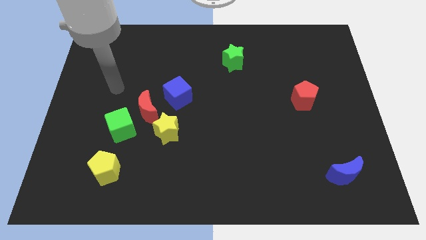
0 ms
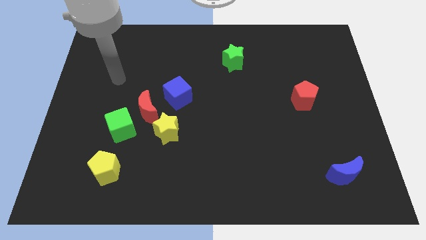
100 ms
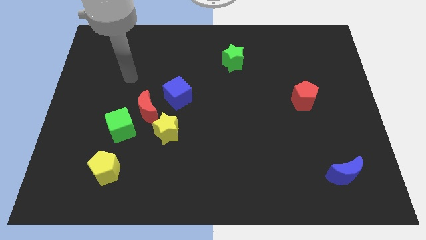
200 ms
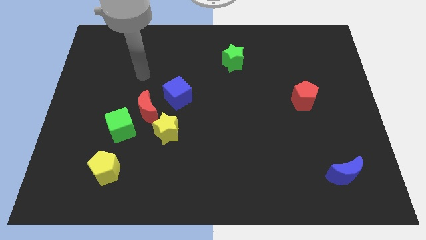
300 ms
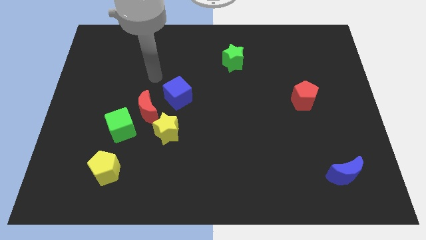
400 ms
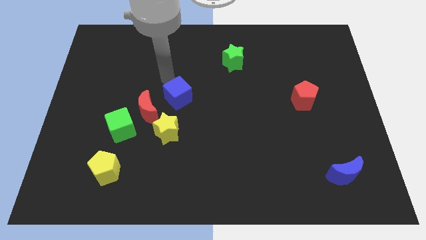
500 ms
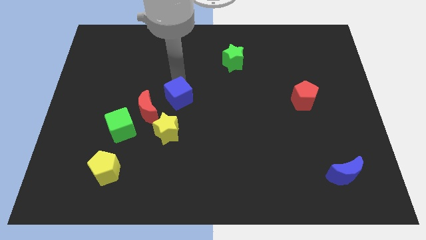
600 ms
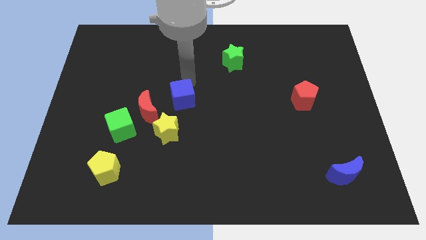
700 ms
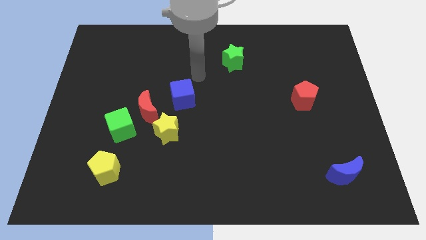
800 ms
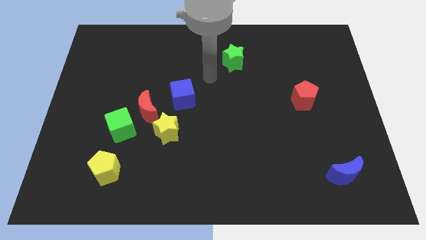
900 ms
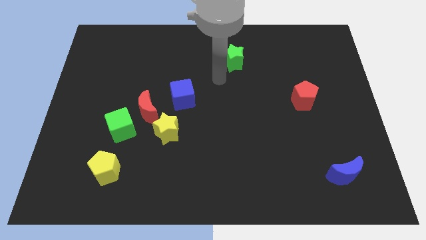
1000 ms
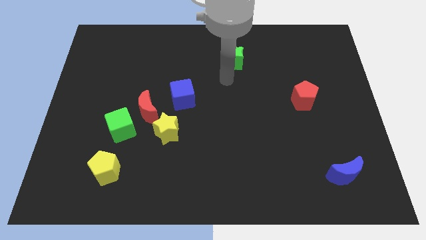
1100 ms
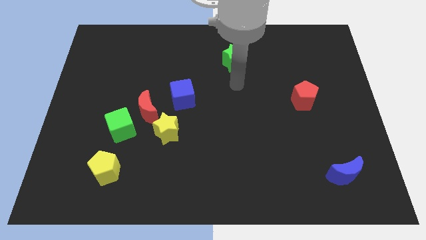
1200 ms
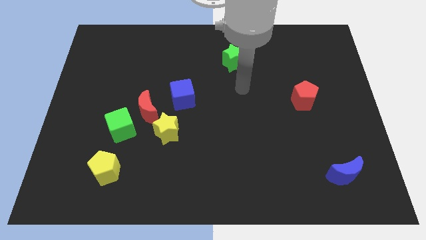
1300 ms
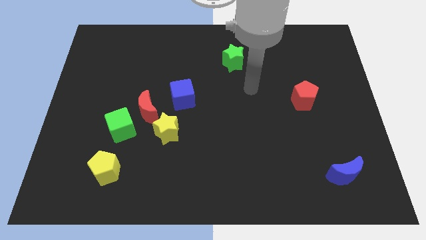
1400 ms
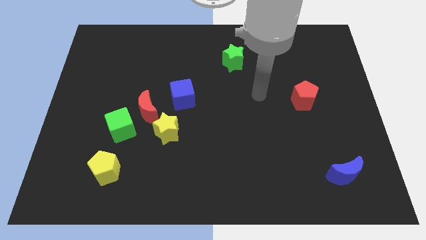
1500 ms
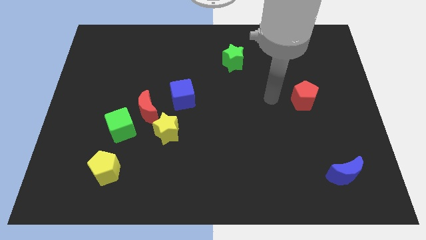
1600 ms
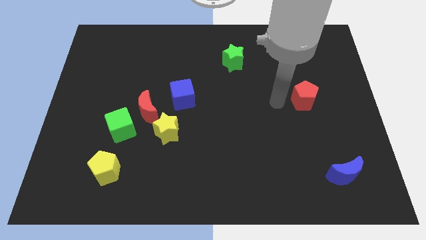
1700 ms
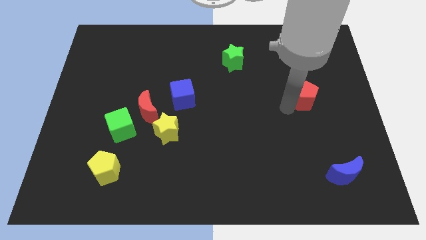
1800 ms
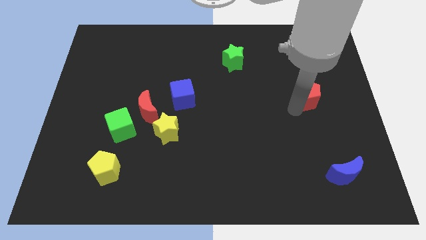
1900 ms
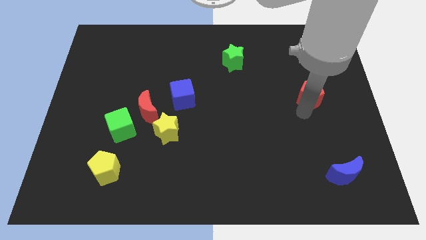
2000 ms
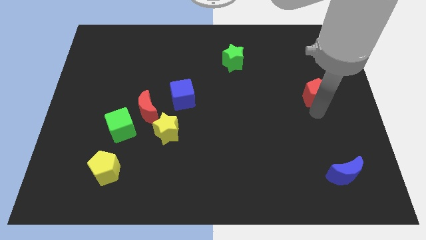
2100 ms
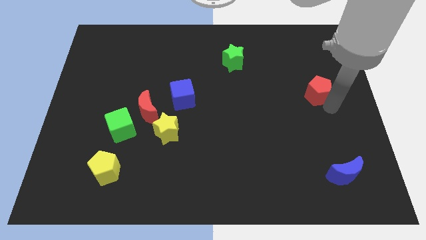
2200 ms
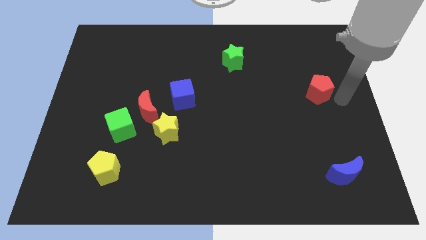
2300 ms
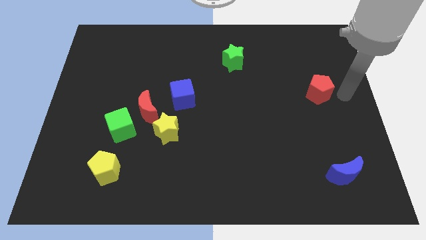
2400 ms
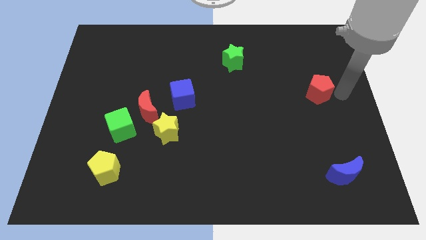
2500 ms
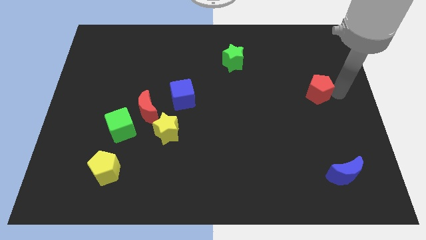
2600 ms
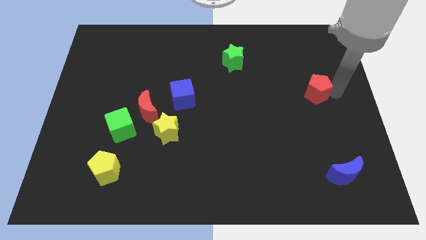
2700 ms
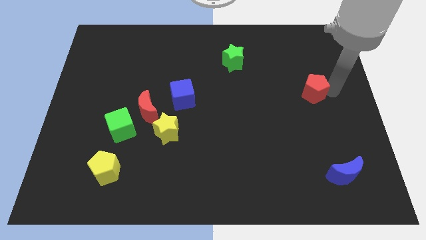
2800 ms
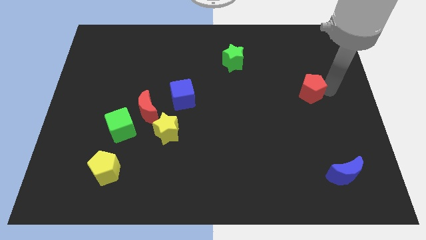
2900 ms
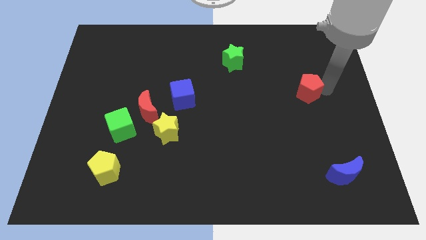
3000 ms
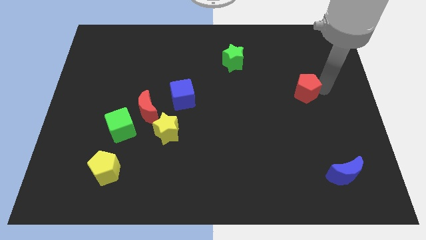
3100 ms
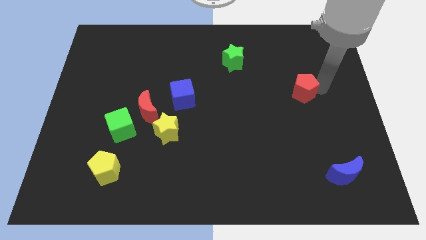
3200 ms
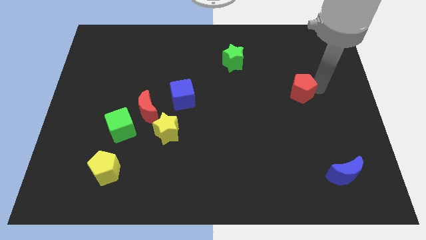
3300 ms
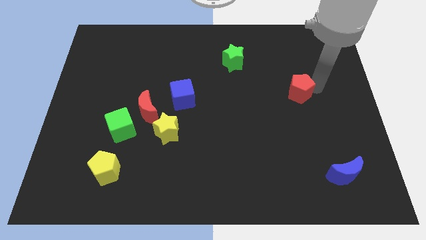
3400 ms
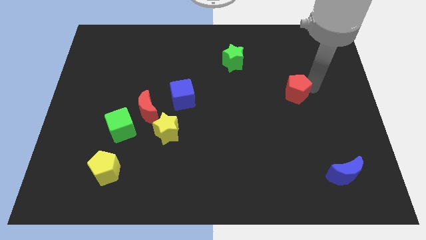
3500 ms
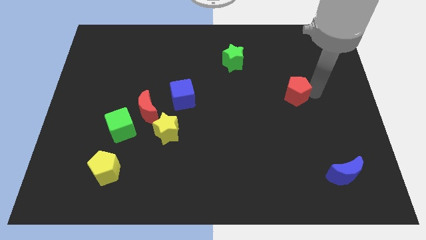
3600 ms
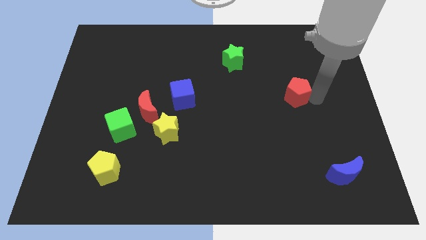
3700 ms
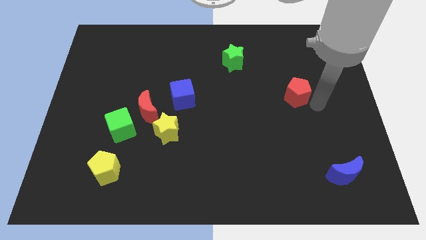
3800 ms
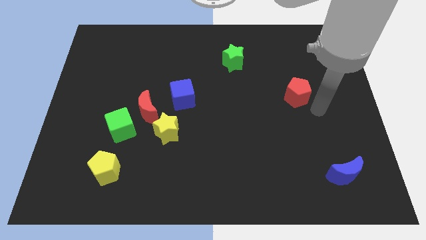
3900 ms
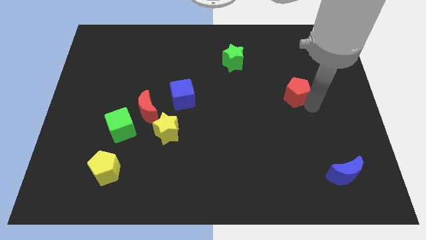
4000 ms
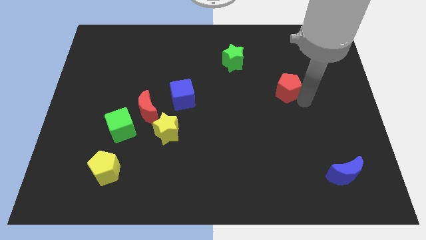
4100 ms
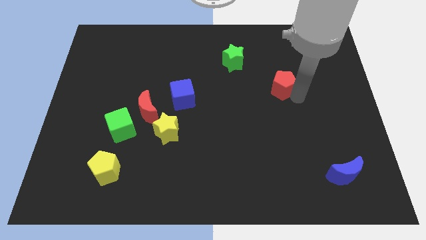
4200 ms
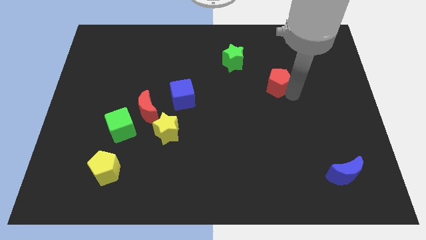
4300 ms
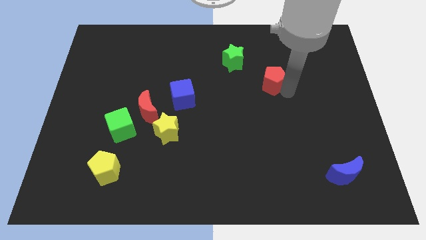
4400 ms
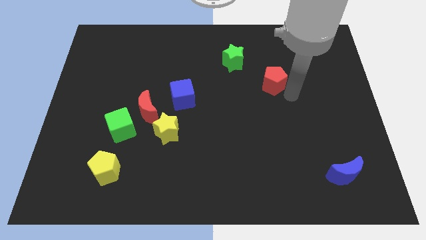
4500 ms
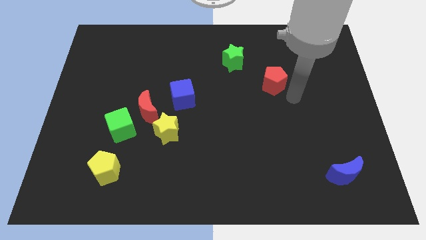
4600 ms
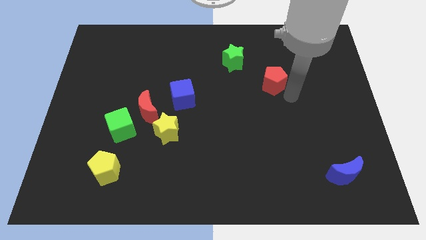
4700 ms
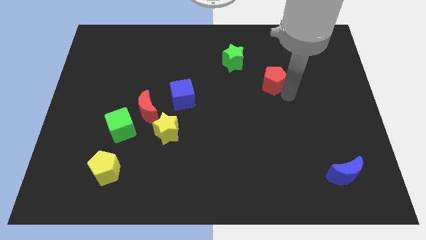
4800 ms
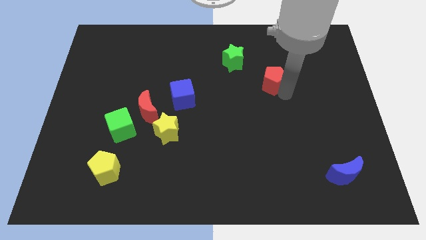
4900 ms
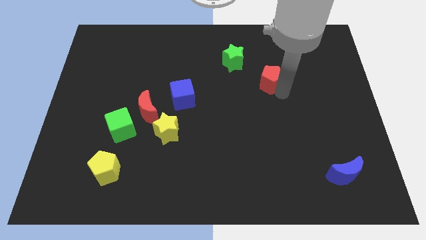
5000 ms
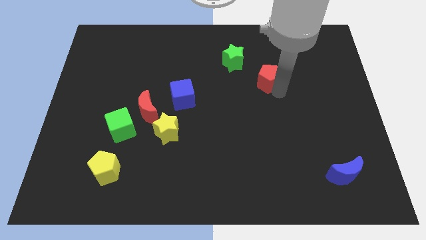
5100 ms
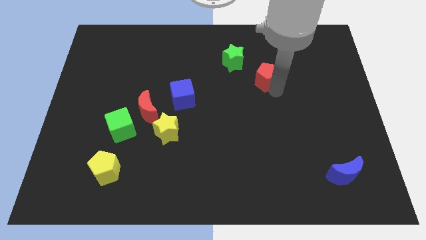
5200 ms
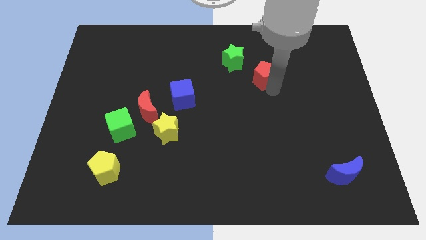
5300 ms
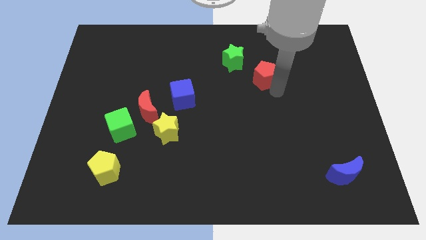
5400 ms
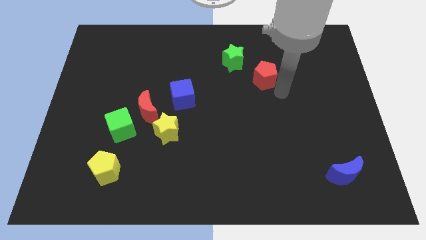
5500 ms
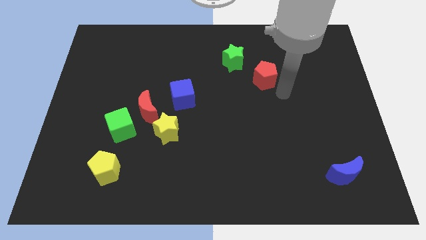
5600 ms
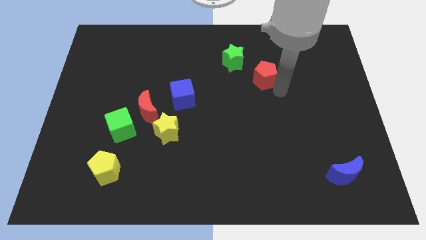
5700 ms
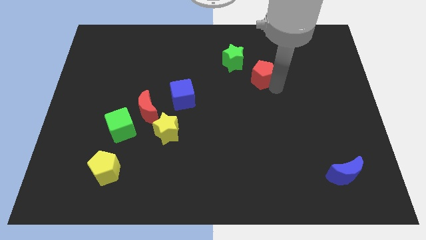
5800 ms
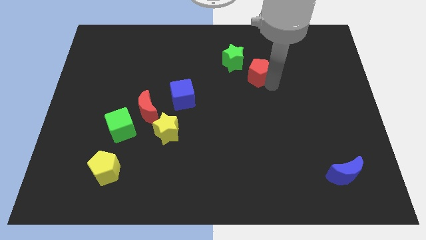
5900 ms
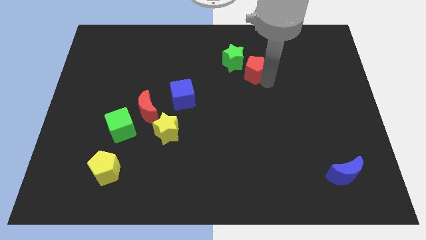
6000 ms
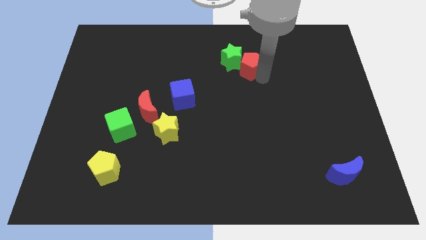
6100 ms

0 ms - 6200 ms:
push the red pentagon next to the green star

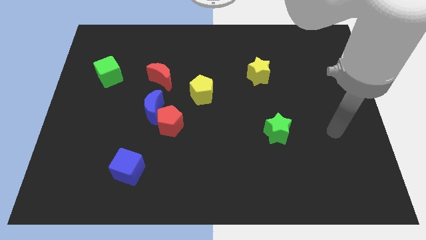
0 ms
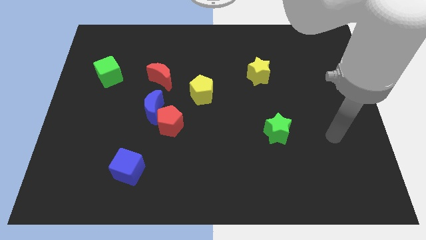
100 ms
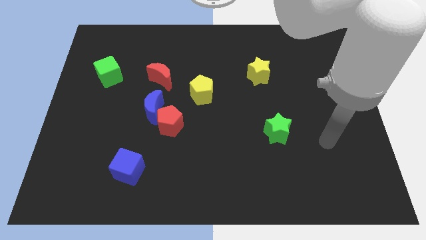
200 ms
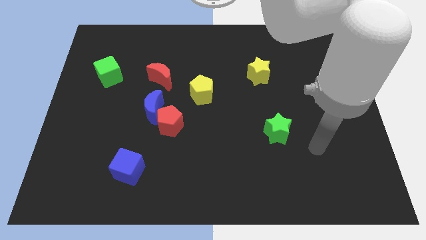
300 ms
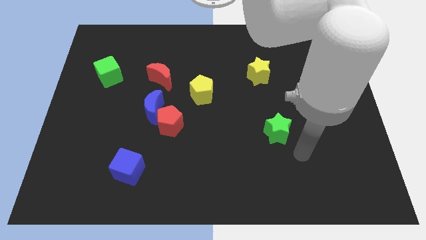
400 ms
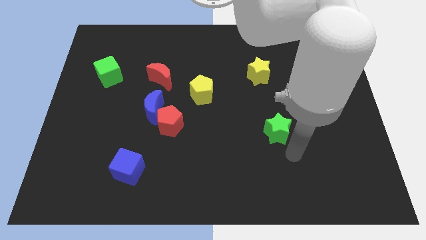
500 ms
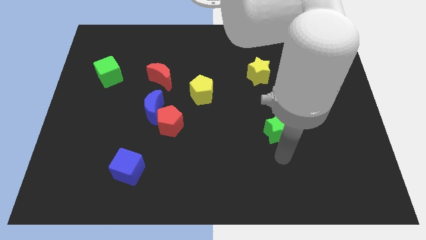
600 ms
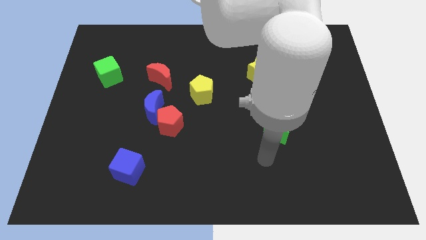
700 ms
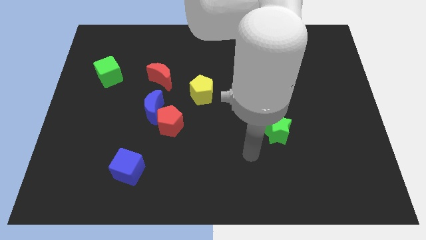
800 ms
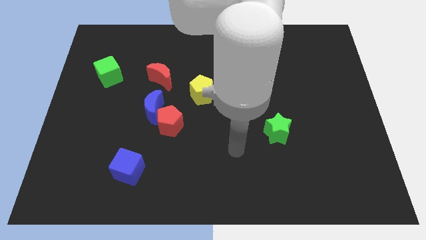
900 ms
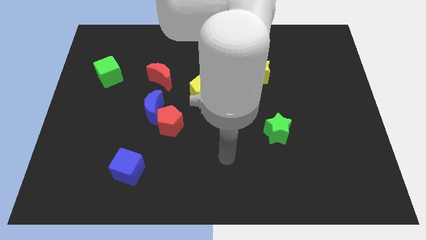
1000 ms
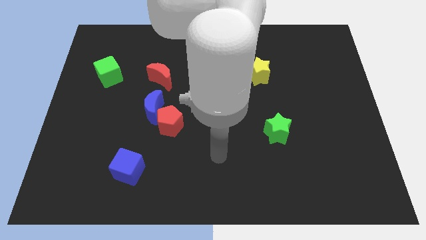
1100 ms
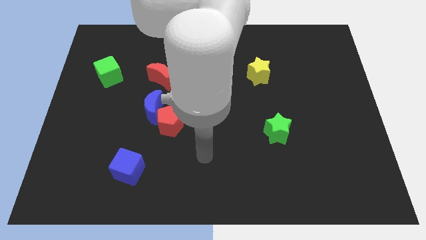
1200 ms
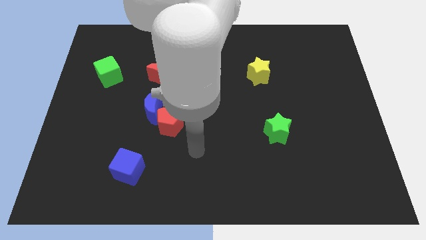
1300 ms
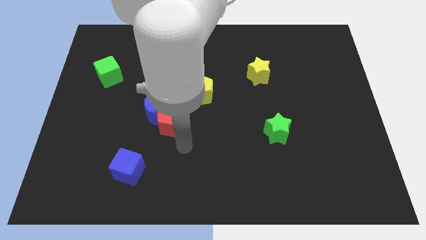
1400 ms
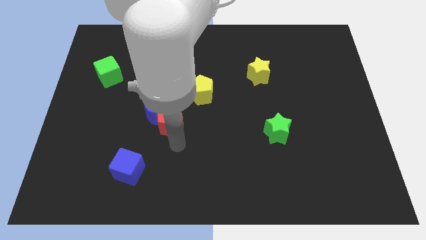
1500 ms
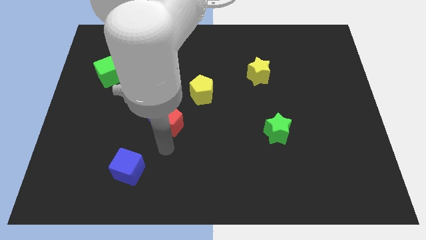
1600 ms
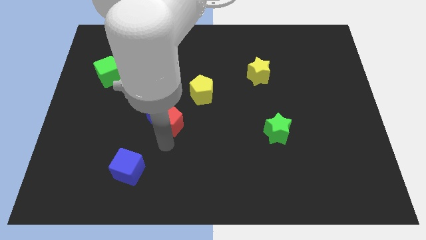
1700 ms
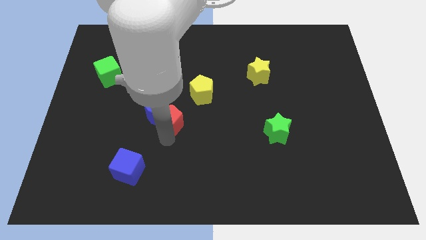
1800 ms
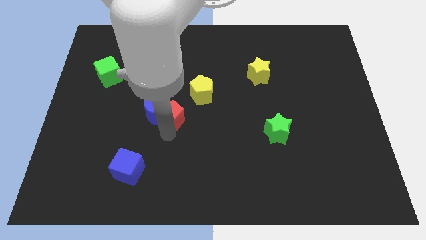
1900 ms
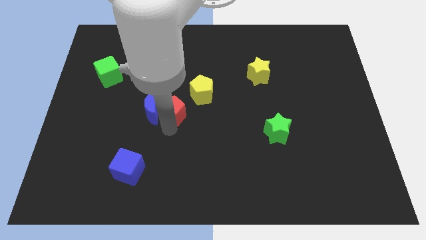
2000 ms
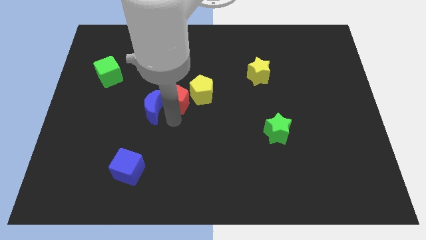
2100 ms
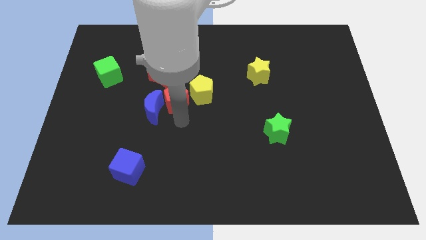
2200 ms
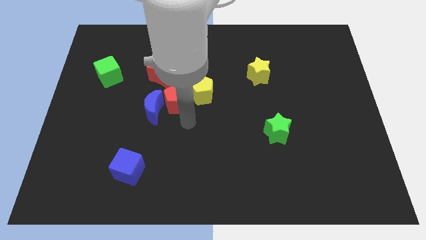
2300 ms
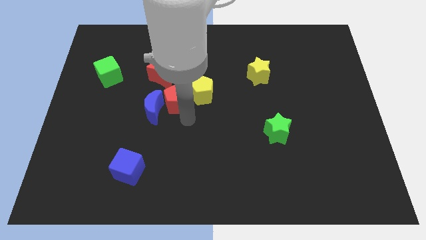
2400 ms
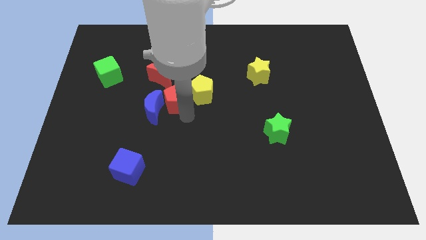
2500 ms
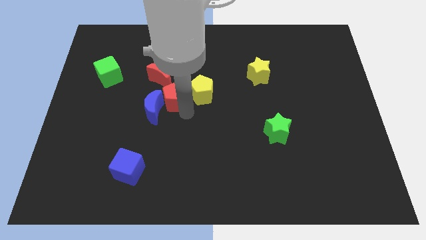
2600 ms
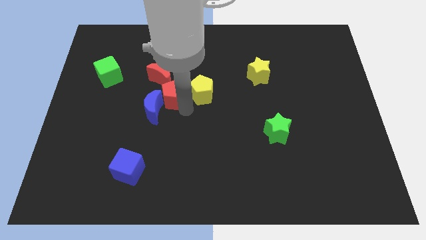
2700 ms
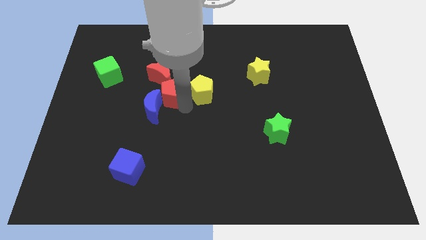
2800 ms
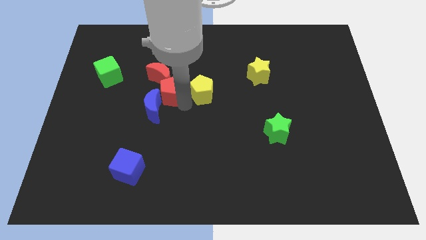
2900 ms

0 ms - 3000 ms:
push the red pentagon close to the red moon
